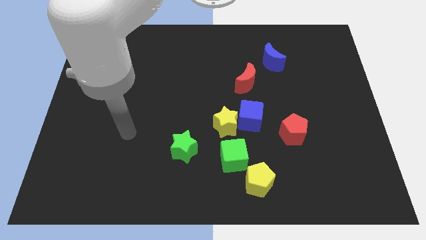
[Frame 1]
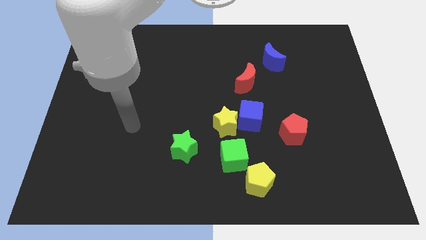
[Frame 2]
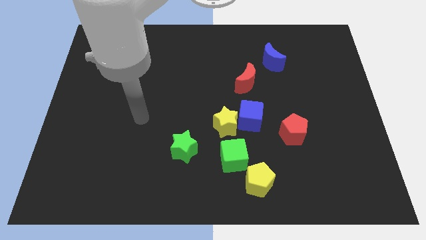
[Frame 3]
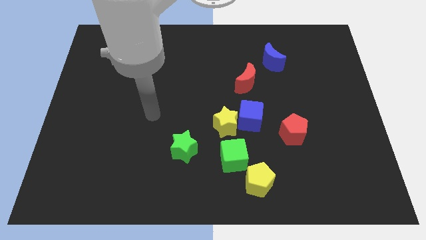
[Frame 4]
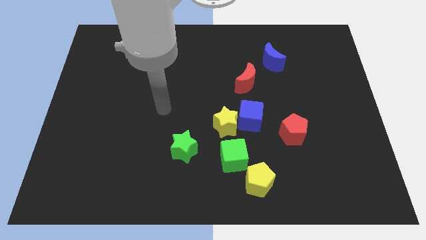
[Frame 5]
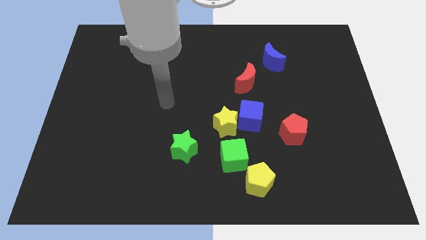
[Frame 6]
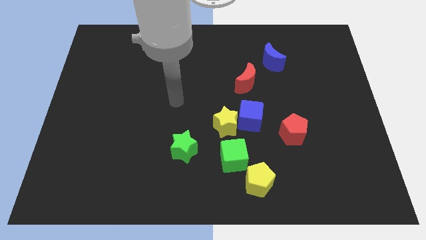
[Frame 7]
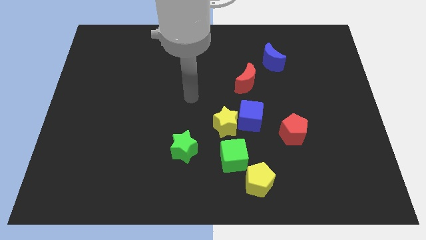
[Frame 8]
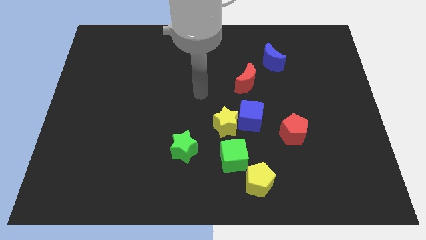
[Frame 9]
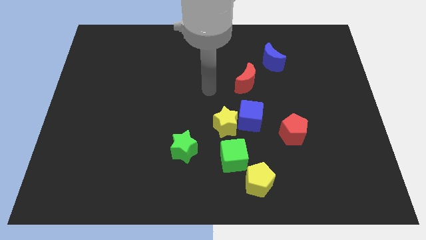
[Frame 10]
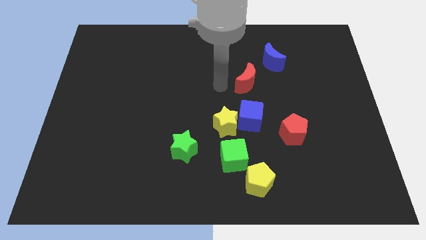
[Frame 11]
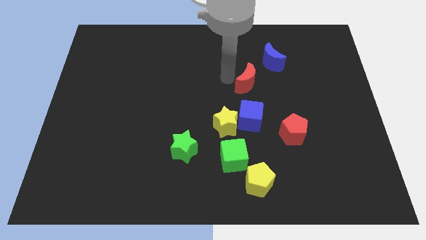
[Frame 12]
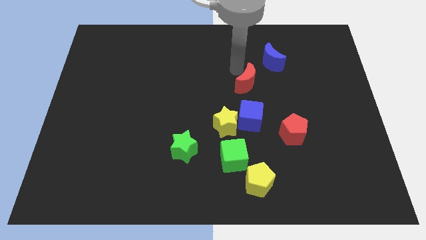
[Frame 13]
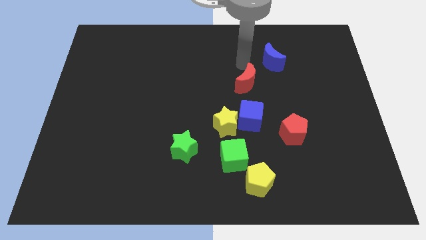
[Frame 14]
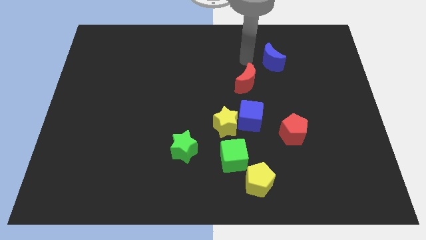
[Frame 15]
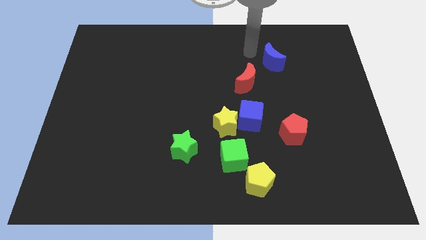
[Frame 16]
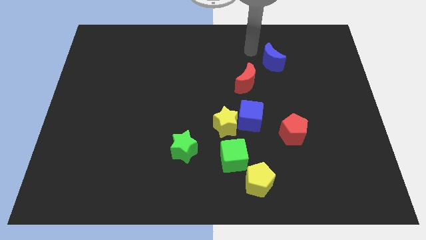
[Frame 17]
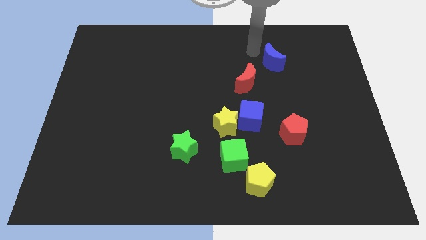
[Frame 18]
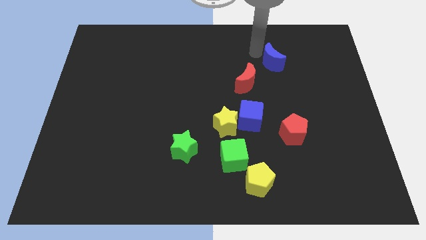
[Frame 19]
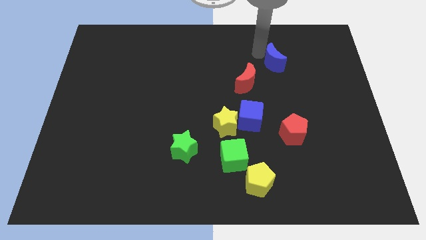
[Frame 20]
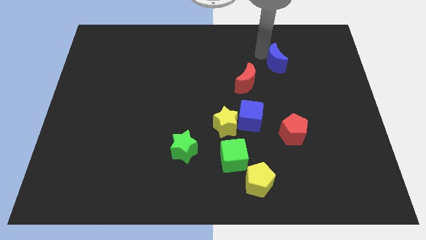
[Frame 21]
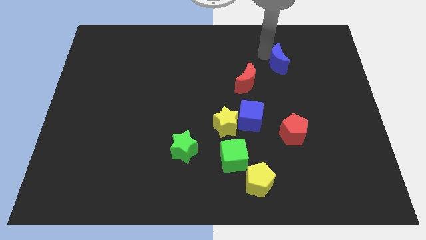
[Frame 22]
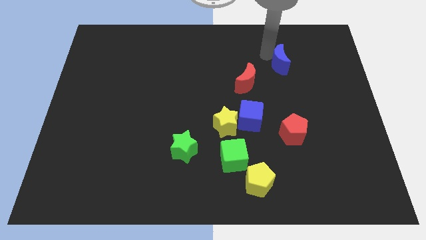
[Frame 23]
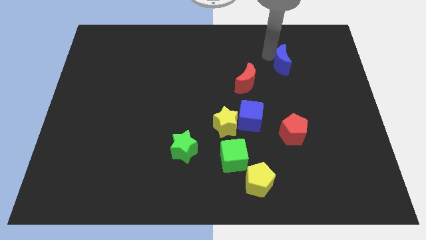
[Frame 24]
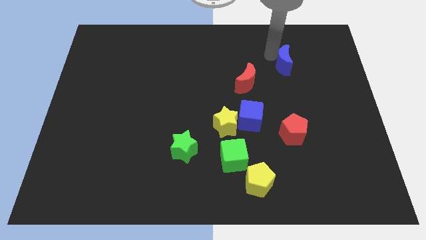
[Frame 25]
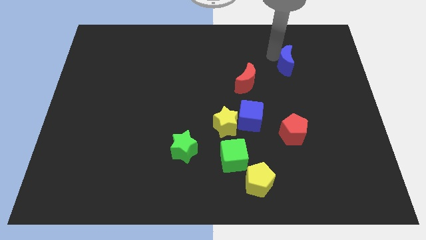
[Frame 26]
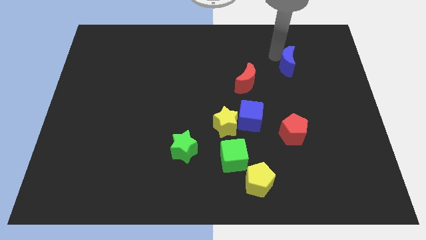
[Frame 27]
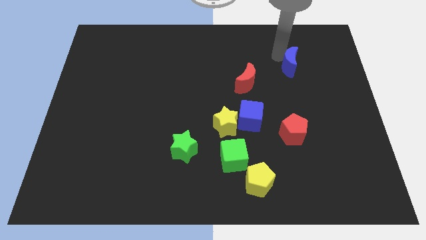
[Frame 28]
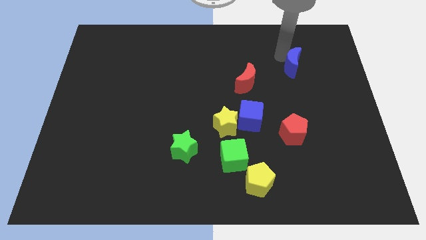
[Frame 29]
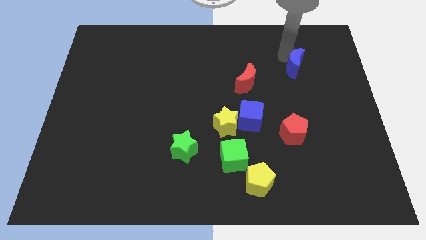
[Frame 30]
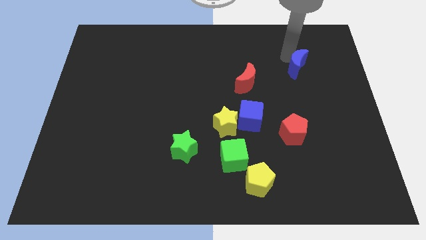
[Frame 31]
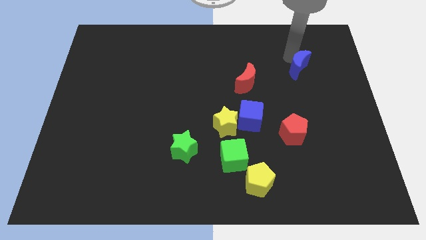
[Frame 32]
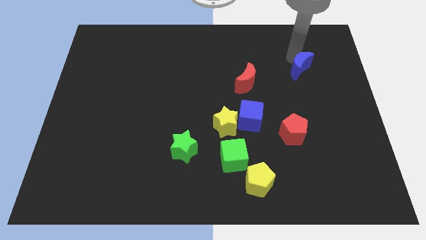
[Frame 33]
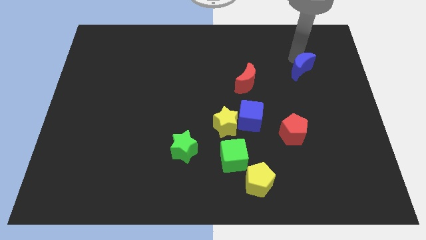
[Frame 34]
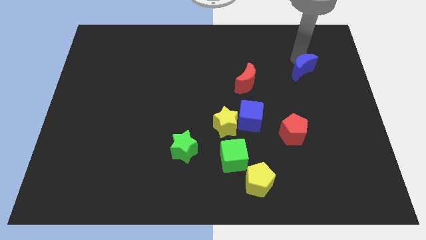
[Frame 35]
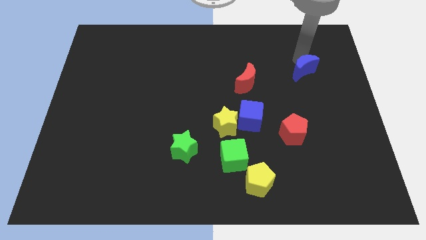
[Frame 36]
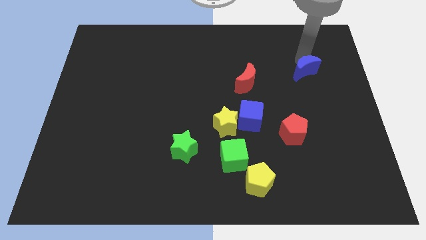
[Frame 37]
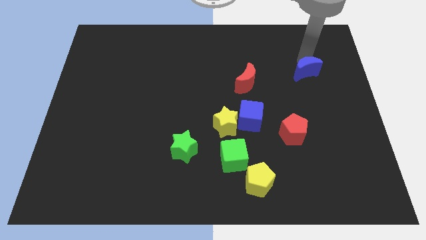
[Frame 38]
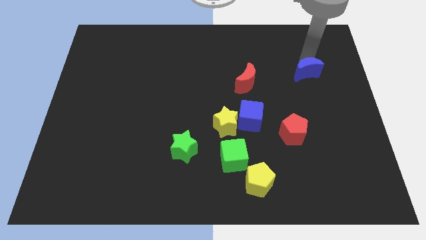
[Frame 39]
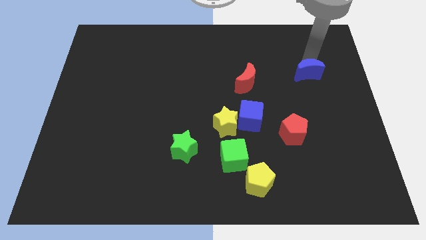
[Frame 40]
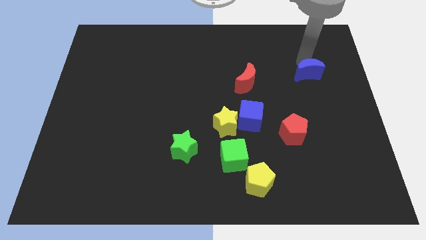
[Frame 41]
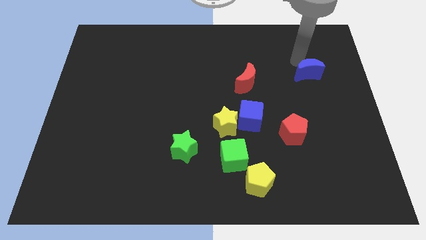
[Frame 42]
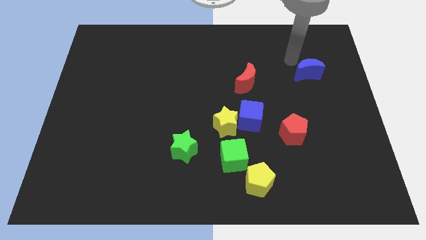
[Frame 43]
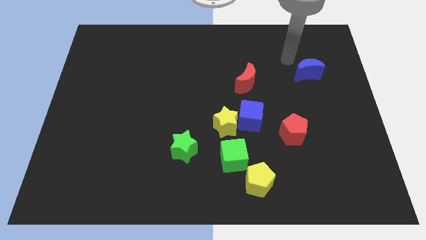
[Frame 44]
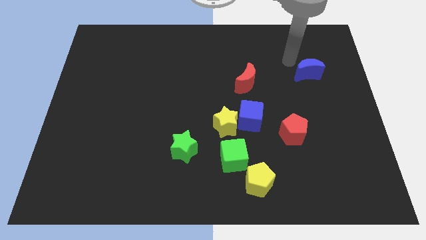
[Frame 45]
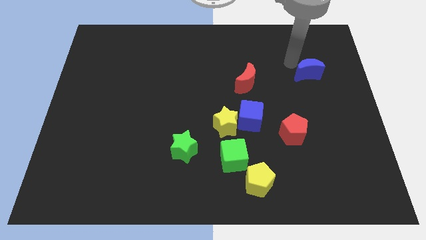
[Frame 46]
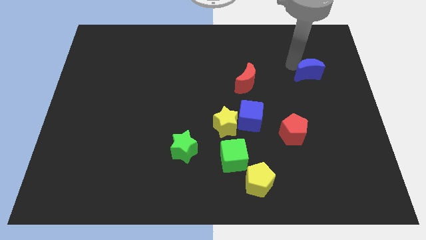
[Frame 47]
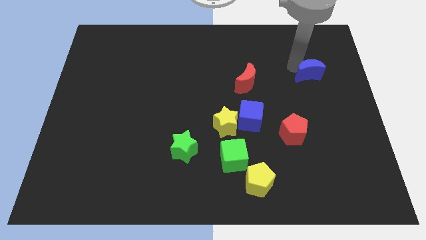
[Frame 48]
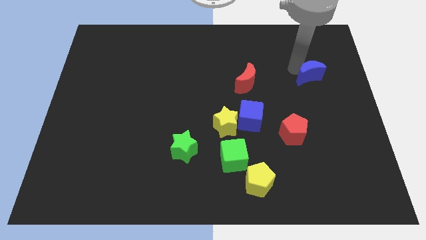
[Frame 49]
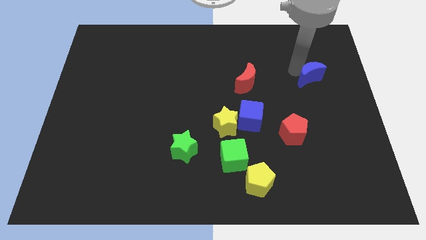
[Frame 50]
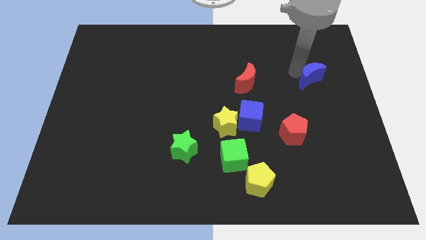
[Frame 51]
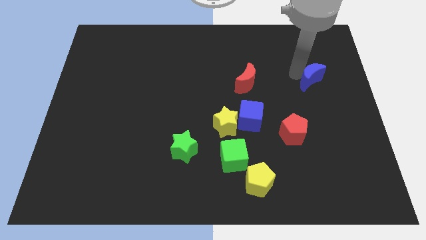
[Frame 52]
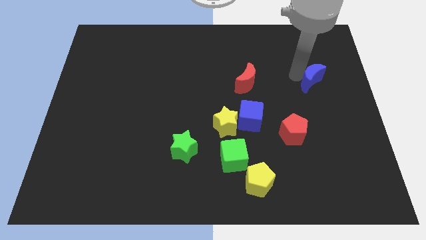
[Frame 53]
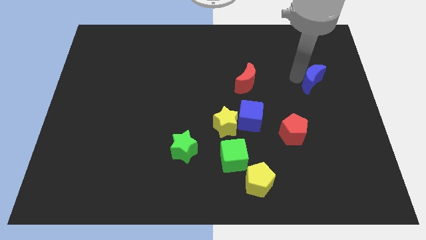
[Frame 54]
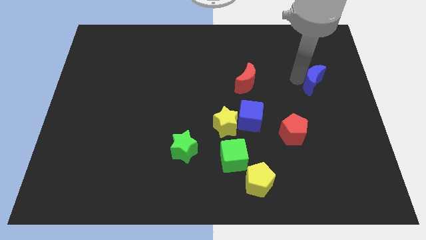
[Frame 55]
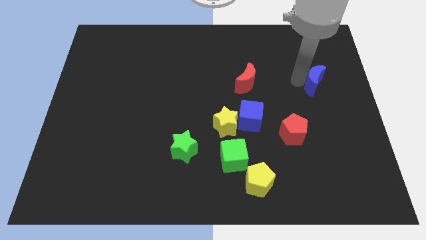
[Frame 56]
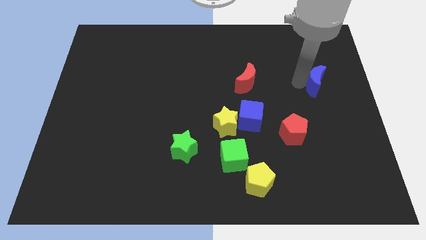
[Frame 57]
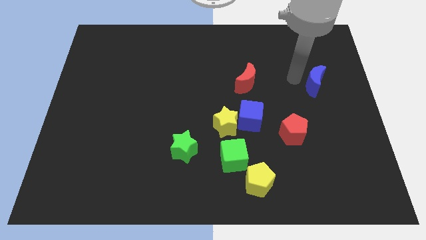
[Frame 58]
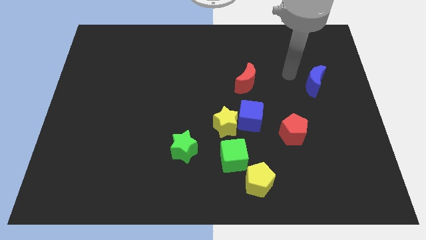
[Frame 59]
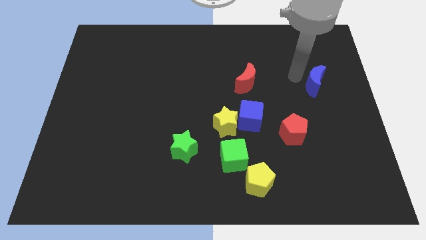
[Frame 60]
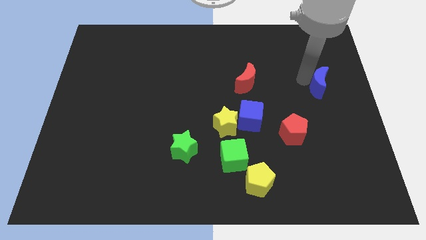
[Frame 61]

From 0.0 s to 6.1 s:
slide the blue moon to the right side of the board

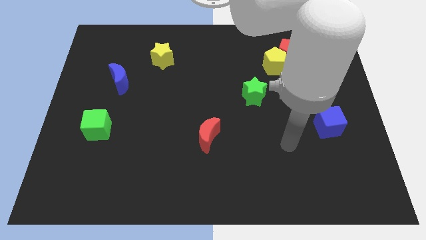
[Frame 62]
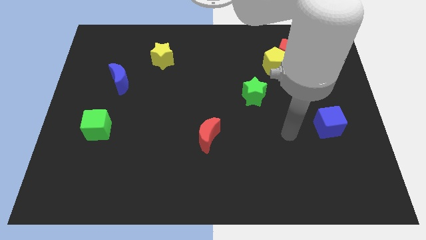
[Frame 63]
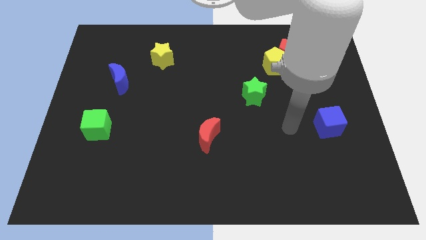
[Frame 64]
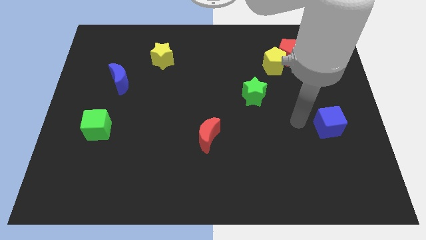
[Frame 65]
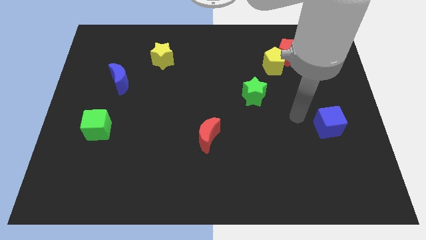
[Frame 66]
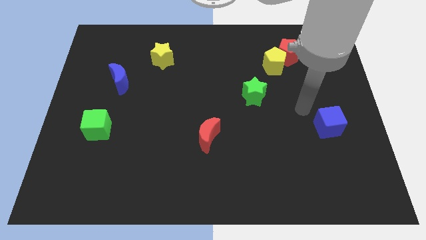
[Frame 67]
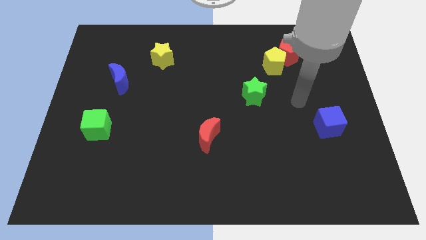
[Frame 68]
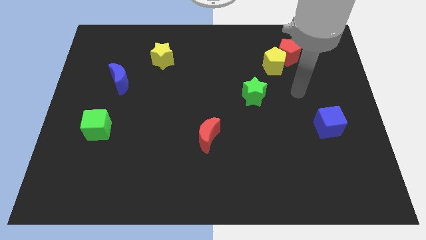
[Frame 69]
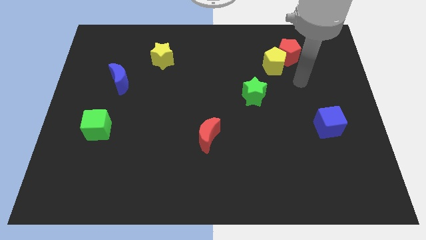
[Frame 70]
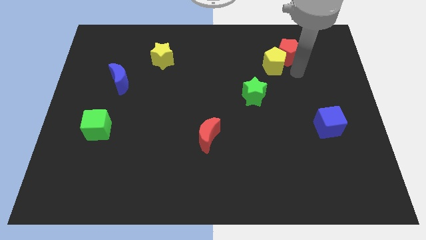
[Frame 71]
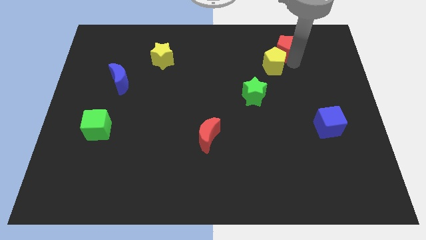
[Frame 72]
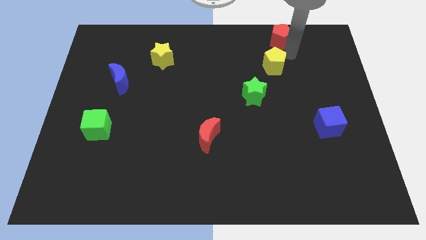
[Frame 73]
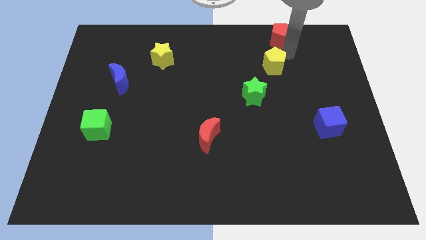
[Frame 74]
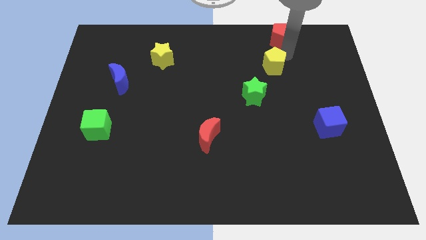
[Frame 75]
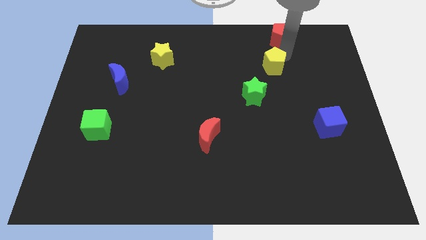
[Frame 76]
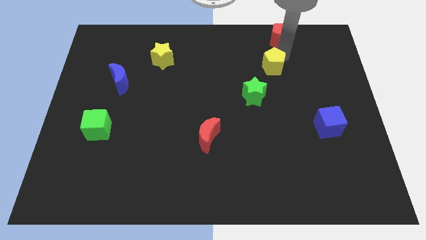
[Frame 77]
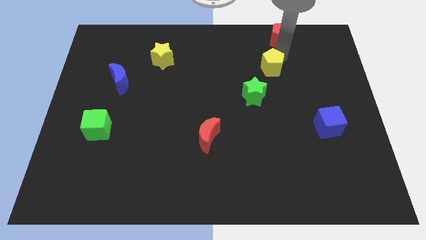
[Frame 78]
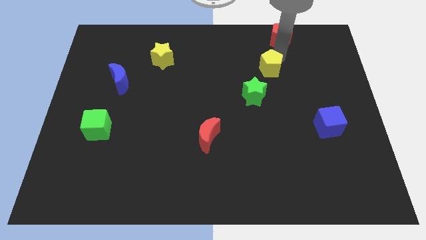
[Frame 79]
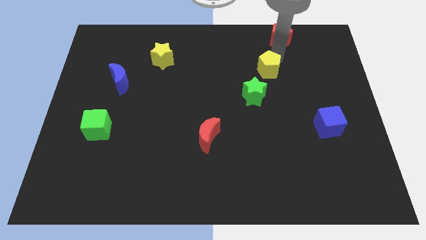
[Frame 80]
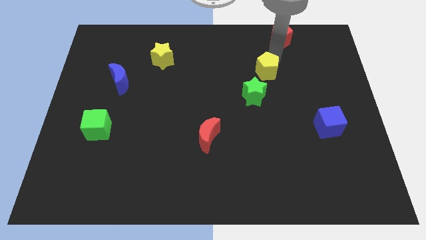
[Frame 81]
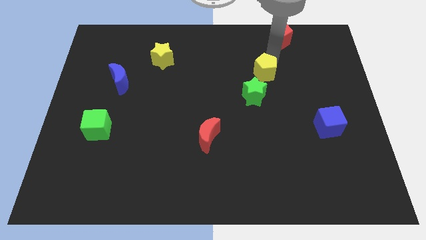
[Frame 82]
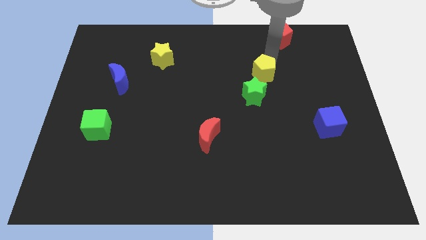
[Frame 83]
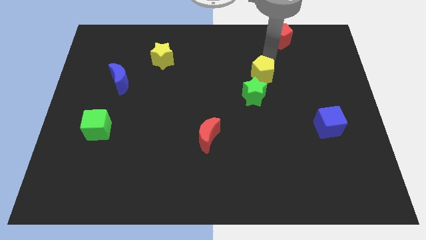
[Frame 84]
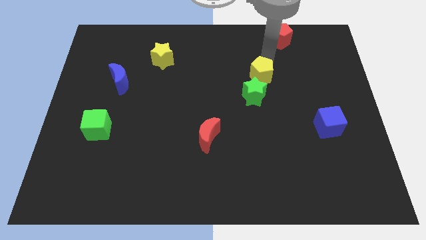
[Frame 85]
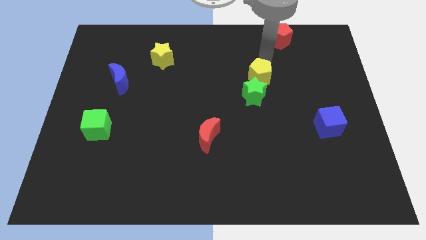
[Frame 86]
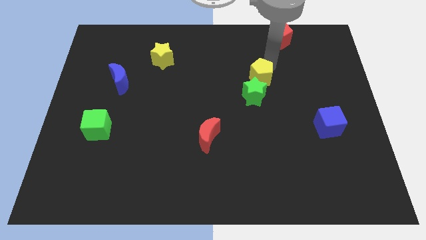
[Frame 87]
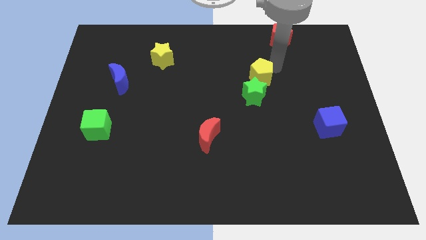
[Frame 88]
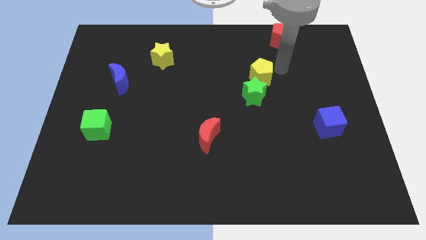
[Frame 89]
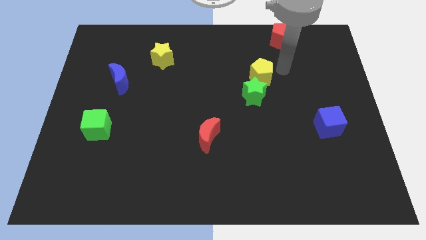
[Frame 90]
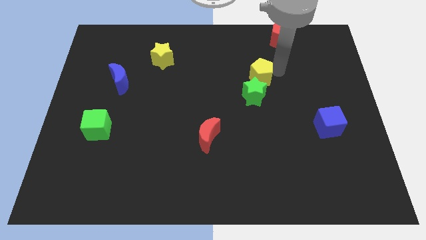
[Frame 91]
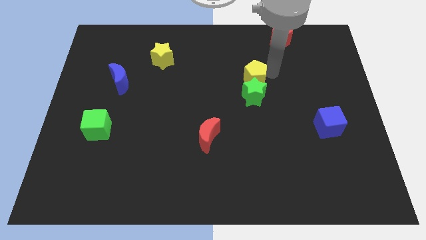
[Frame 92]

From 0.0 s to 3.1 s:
put the yellow pentagon to the middle of the board
